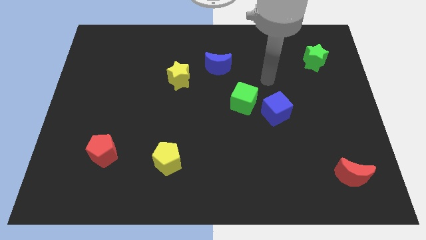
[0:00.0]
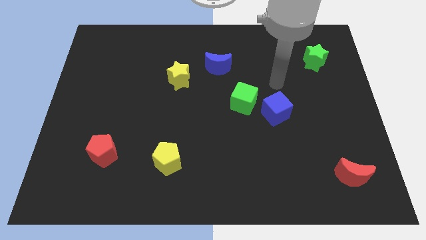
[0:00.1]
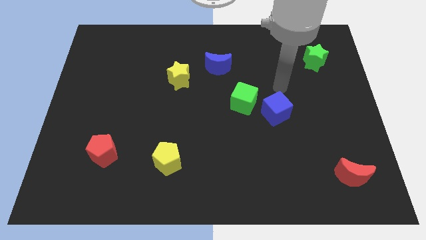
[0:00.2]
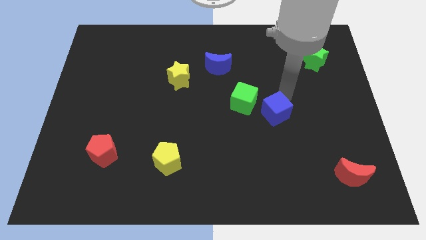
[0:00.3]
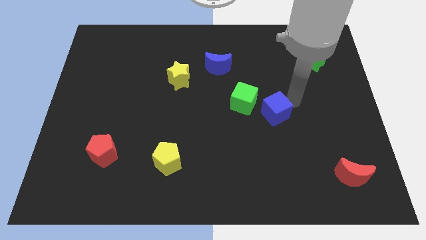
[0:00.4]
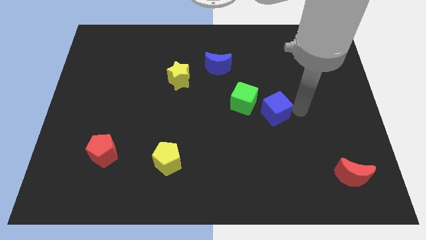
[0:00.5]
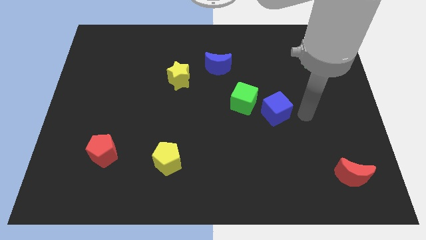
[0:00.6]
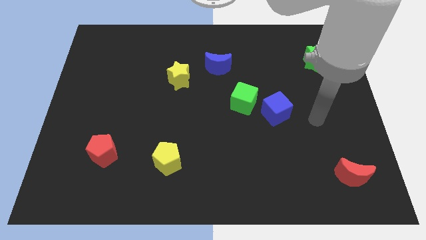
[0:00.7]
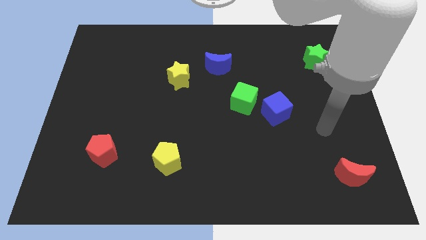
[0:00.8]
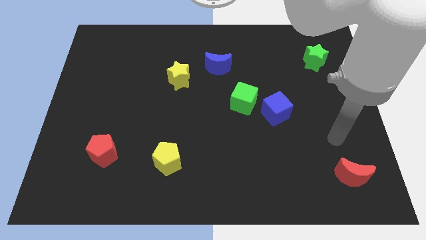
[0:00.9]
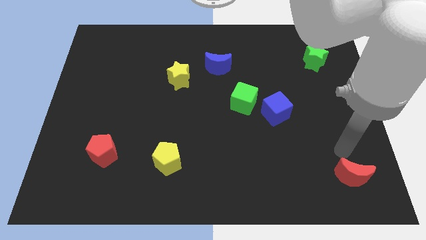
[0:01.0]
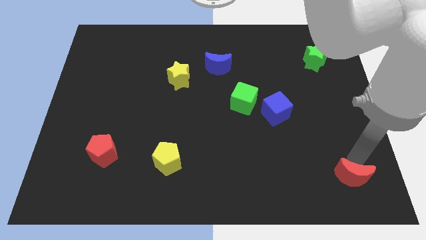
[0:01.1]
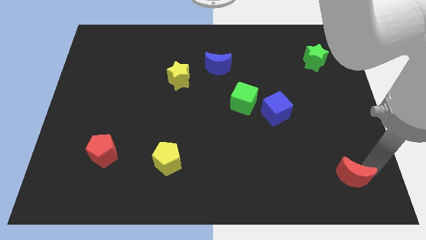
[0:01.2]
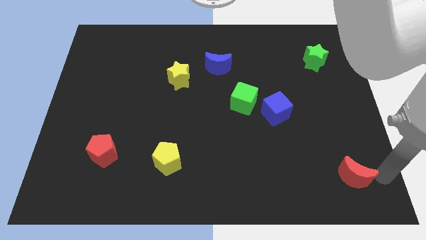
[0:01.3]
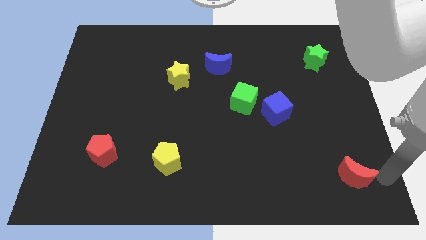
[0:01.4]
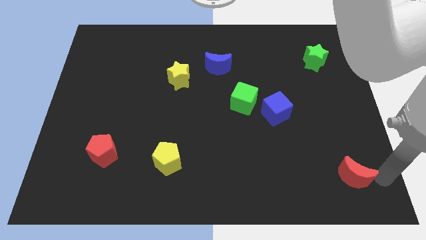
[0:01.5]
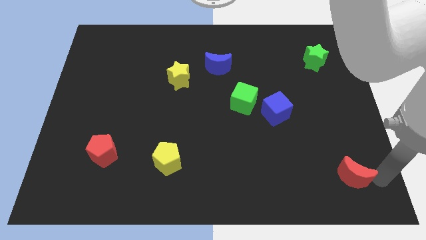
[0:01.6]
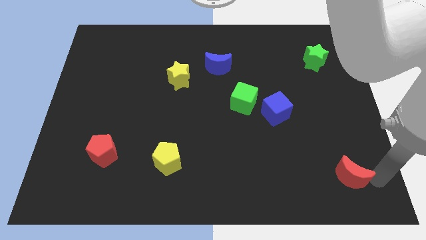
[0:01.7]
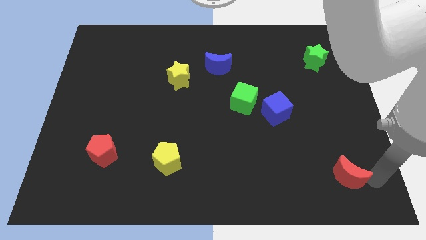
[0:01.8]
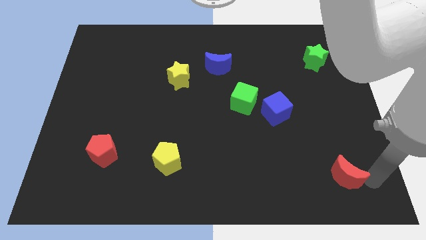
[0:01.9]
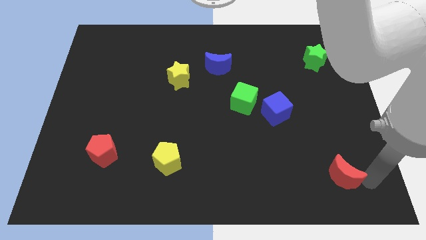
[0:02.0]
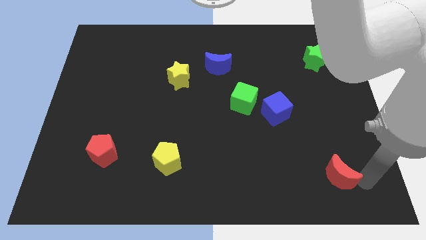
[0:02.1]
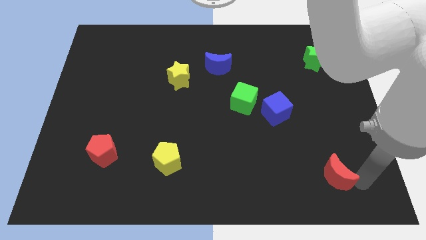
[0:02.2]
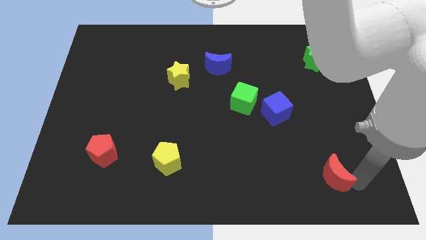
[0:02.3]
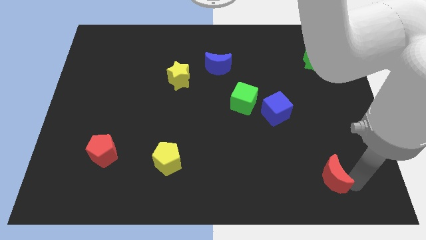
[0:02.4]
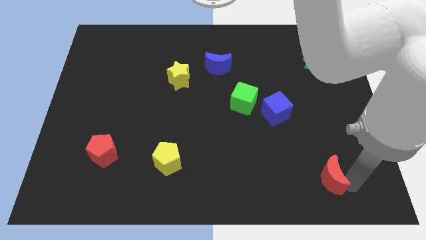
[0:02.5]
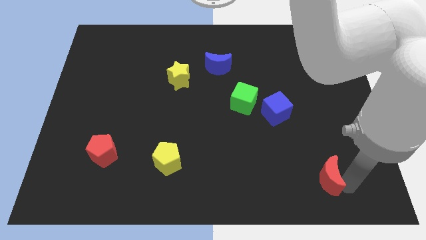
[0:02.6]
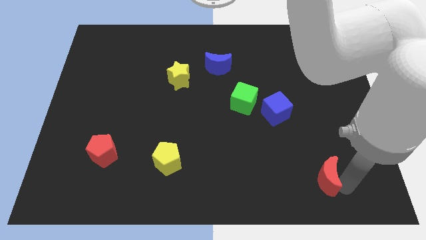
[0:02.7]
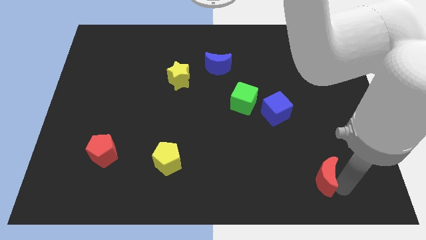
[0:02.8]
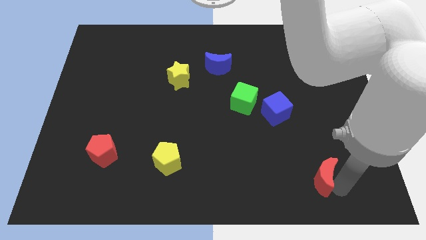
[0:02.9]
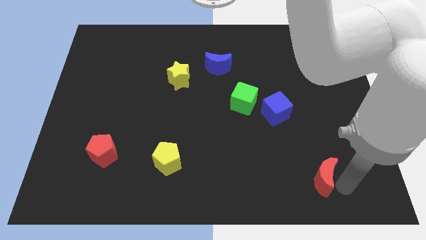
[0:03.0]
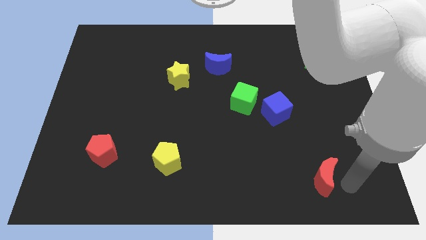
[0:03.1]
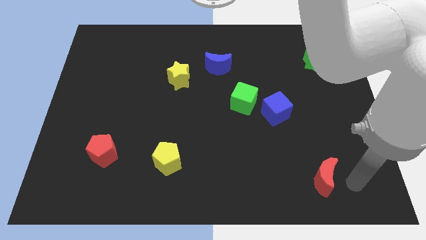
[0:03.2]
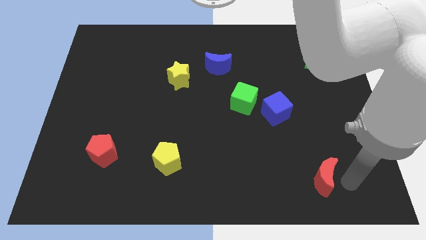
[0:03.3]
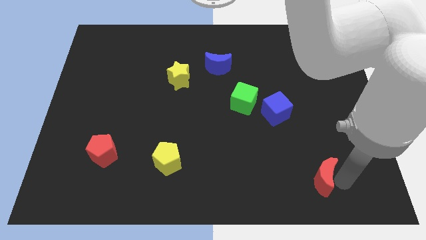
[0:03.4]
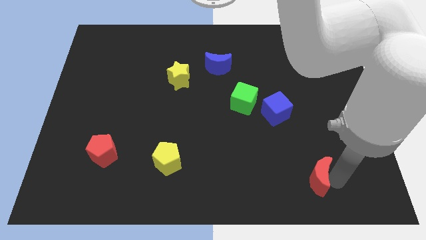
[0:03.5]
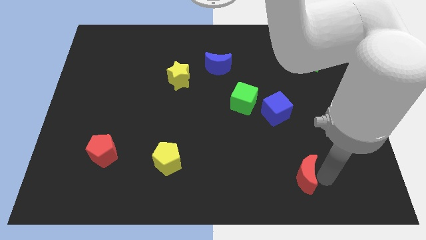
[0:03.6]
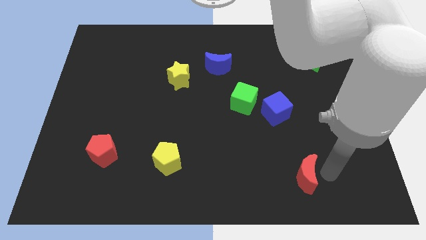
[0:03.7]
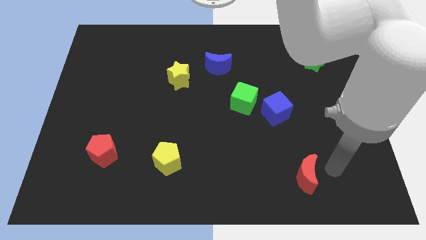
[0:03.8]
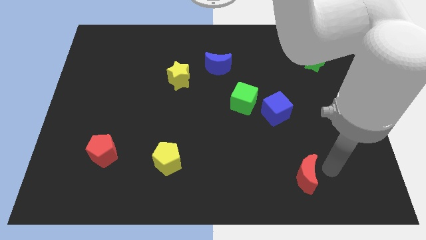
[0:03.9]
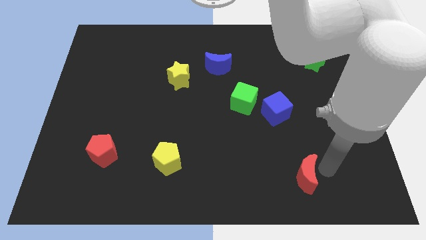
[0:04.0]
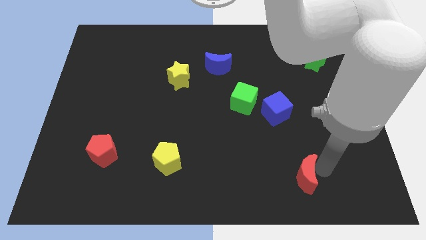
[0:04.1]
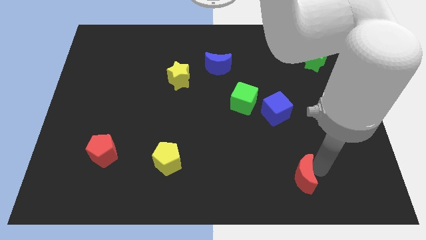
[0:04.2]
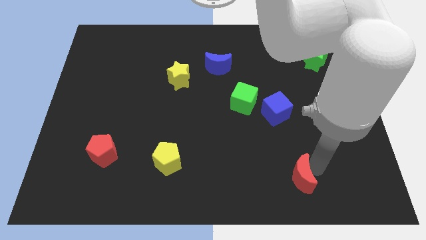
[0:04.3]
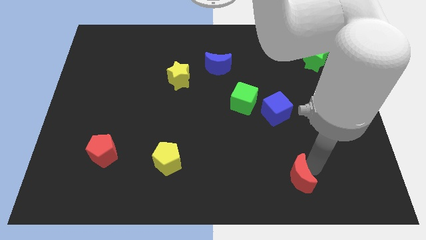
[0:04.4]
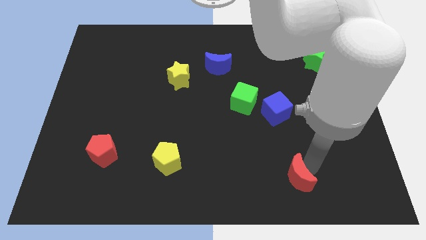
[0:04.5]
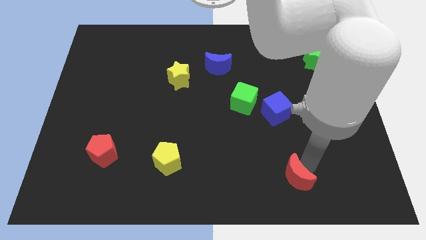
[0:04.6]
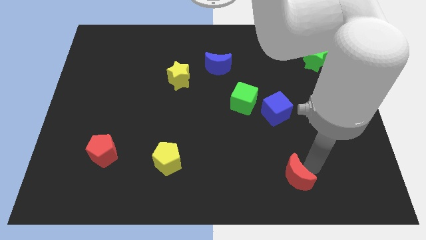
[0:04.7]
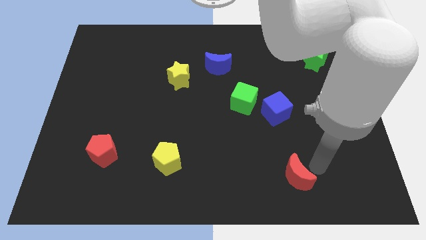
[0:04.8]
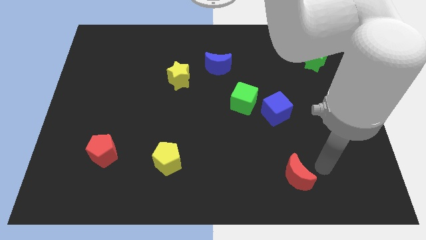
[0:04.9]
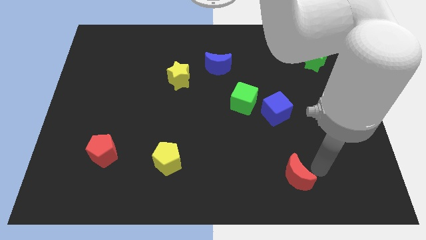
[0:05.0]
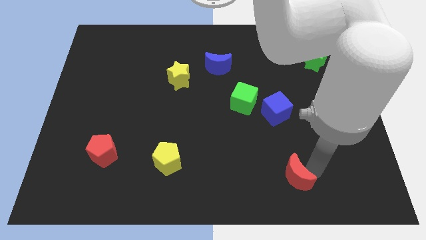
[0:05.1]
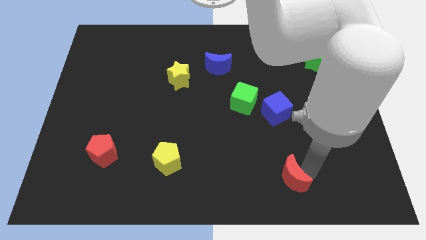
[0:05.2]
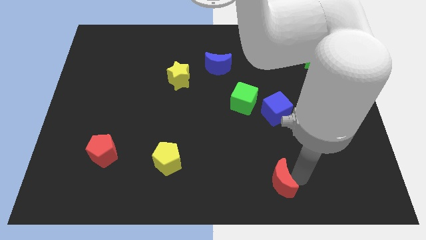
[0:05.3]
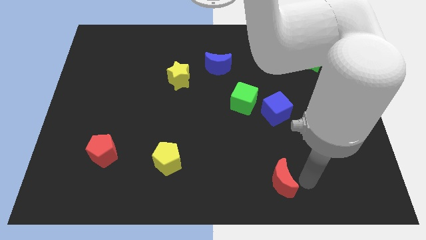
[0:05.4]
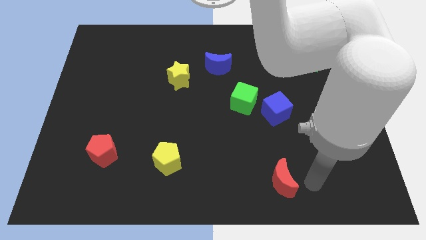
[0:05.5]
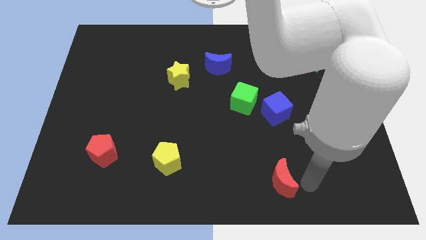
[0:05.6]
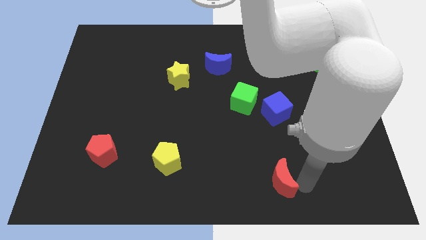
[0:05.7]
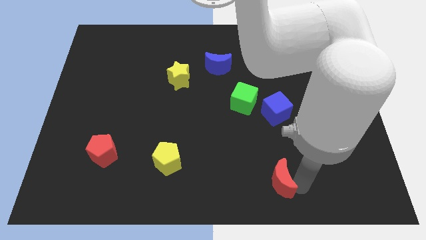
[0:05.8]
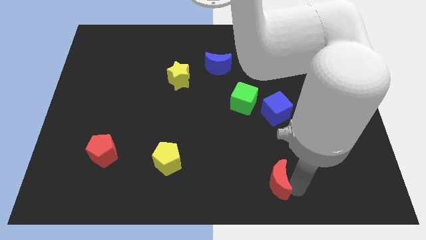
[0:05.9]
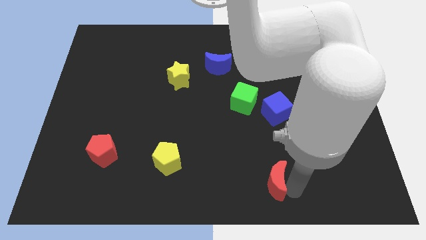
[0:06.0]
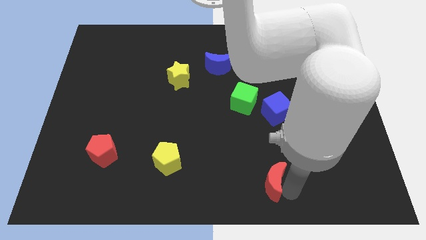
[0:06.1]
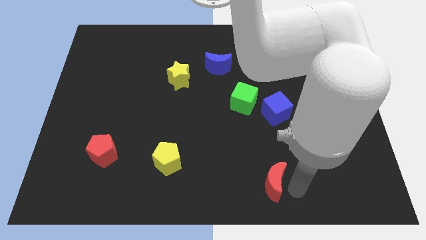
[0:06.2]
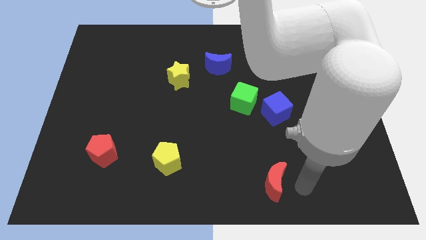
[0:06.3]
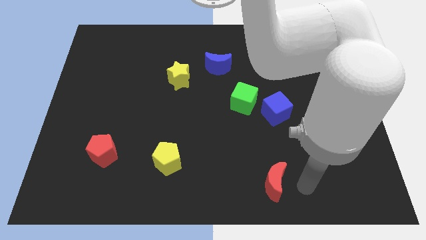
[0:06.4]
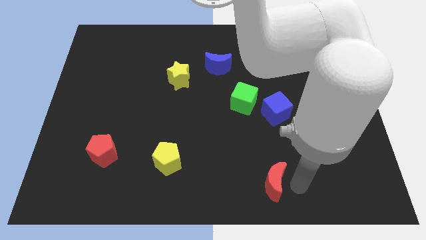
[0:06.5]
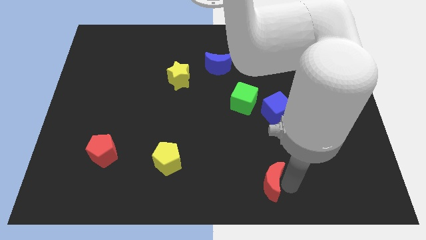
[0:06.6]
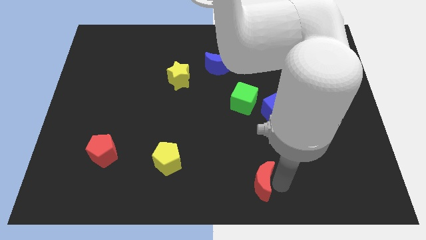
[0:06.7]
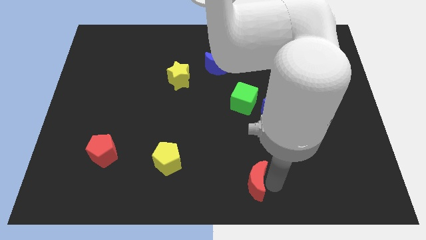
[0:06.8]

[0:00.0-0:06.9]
slide the red moon to the left

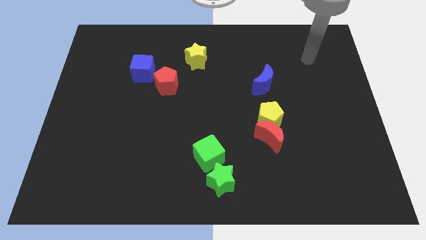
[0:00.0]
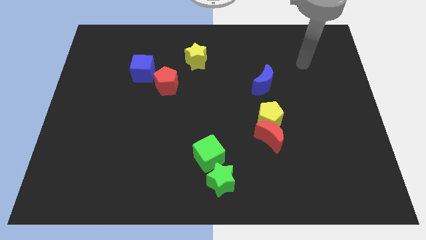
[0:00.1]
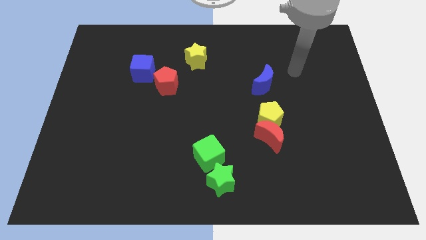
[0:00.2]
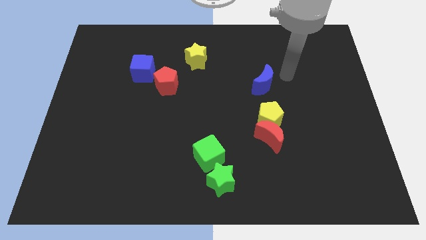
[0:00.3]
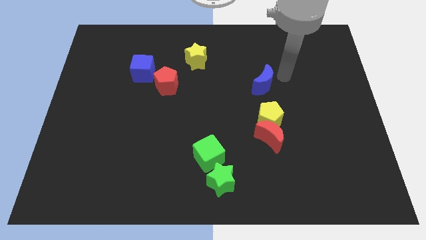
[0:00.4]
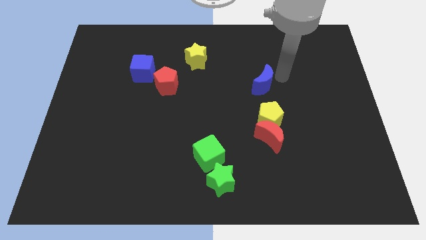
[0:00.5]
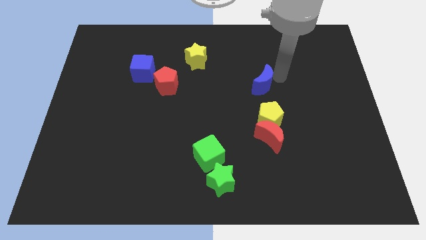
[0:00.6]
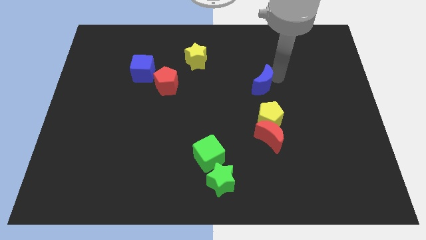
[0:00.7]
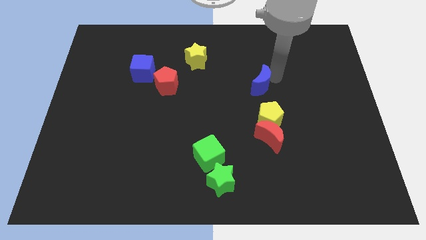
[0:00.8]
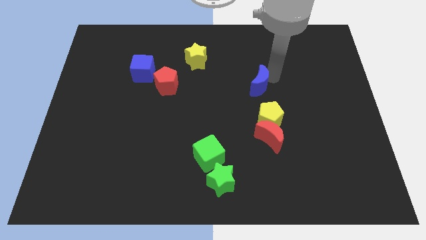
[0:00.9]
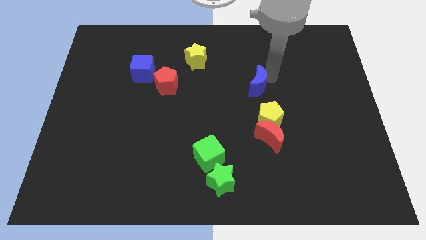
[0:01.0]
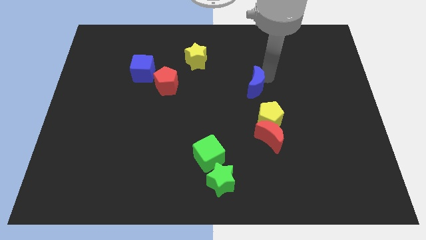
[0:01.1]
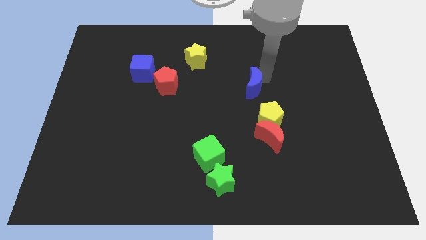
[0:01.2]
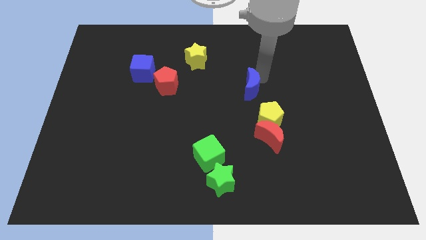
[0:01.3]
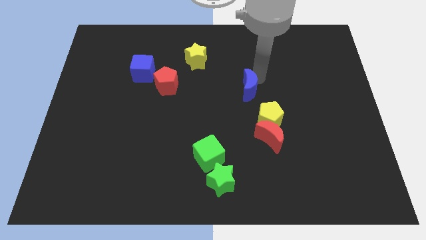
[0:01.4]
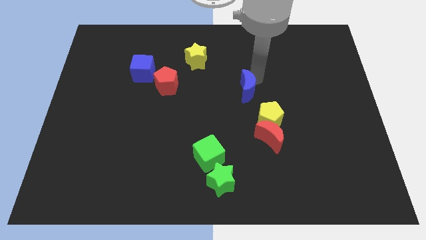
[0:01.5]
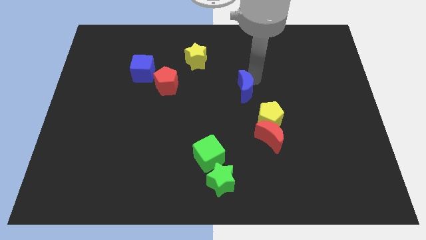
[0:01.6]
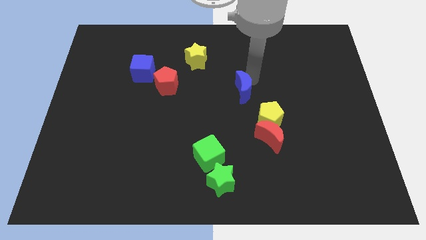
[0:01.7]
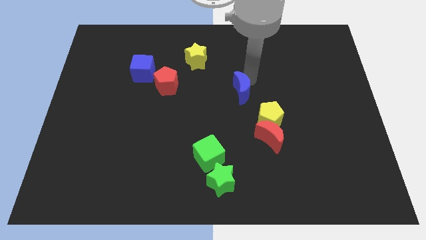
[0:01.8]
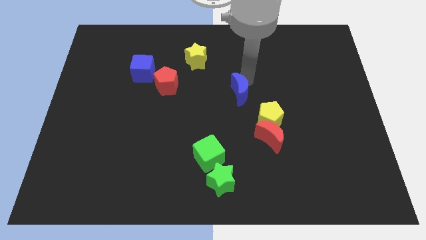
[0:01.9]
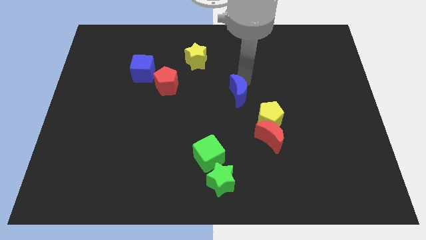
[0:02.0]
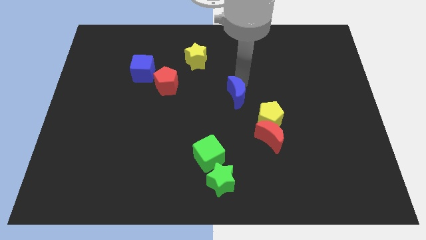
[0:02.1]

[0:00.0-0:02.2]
push the blue moon downwards and then left slightly
